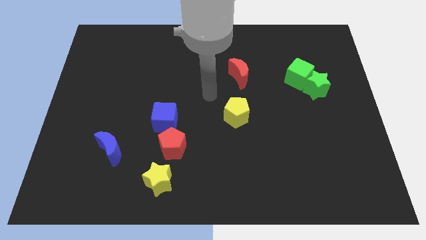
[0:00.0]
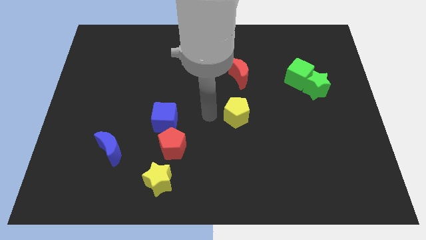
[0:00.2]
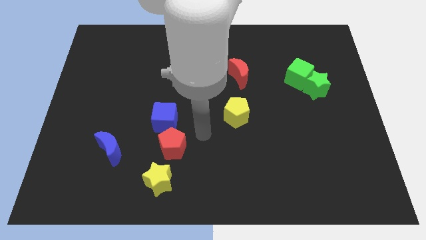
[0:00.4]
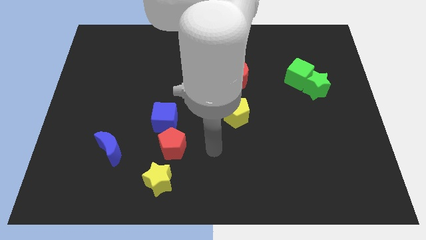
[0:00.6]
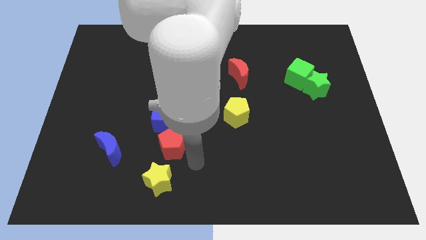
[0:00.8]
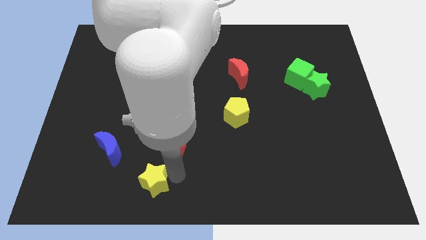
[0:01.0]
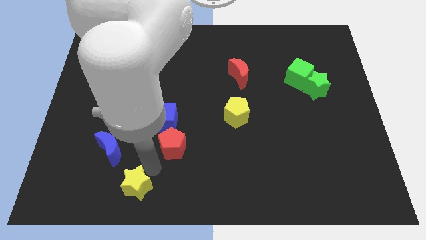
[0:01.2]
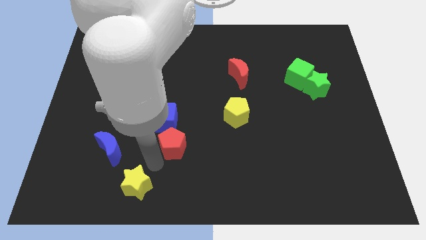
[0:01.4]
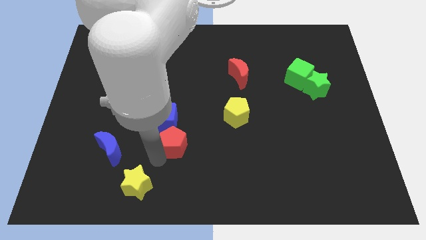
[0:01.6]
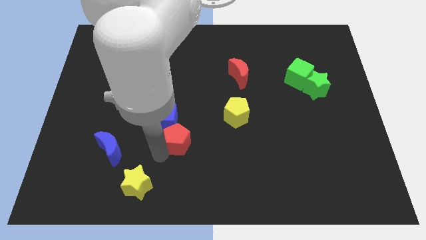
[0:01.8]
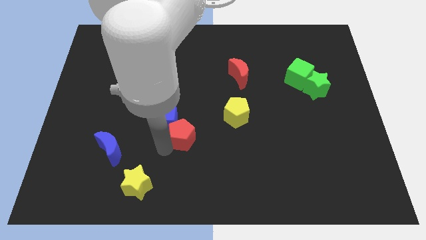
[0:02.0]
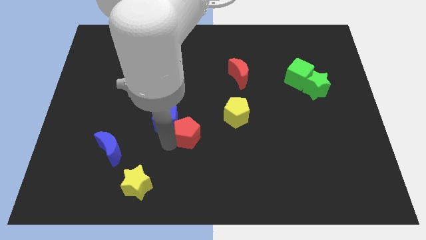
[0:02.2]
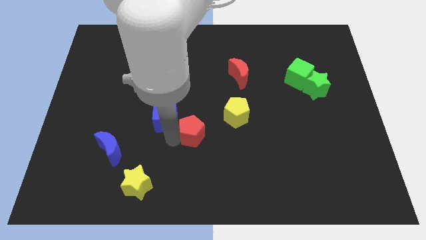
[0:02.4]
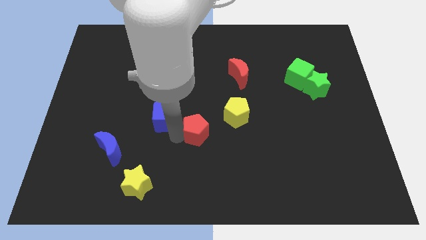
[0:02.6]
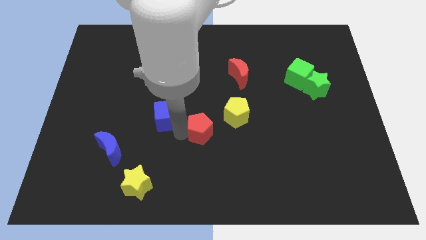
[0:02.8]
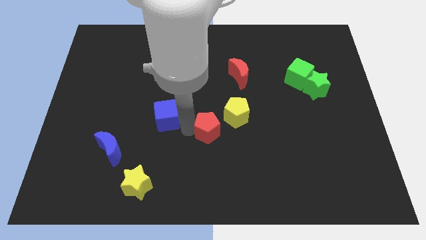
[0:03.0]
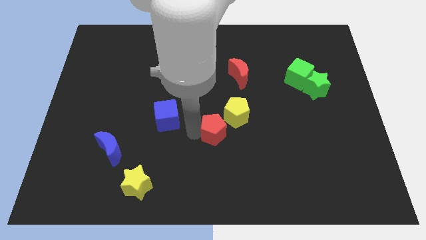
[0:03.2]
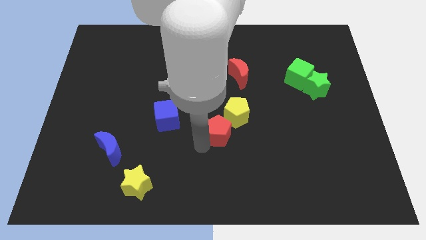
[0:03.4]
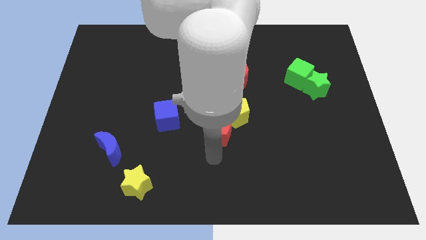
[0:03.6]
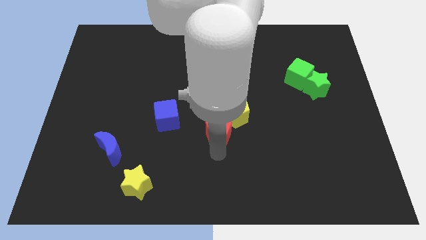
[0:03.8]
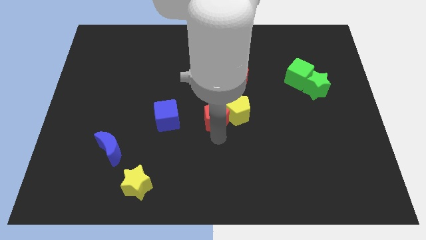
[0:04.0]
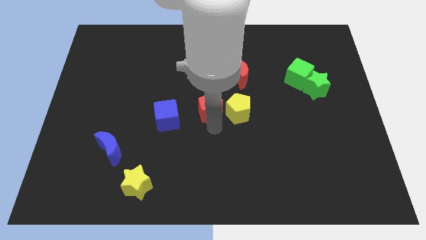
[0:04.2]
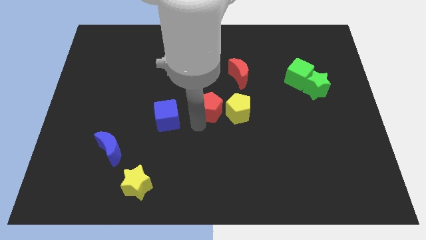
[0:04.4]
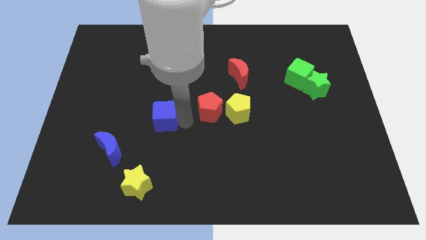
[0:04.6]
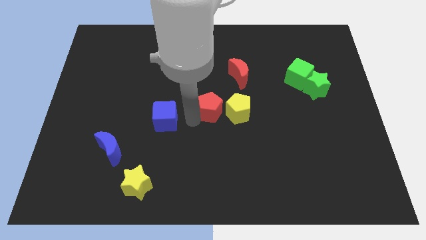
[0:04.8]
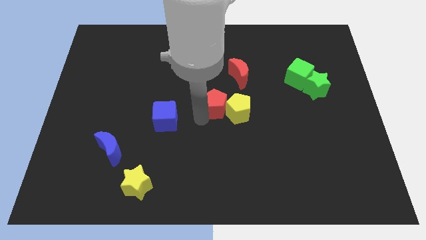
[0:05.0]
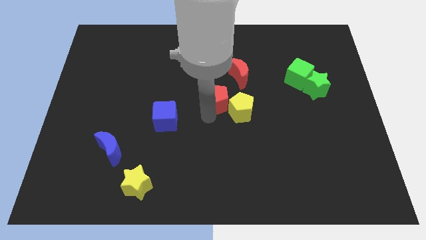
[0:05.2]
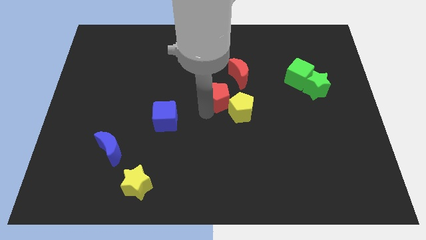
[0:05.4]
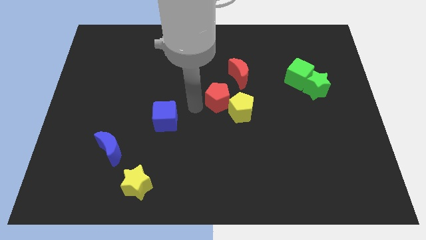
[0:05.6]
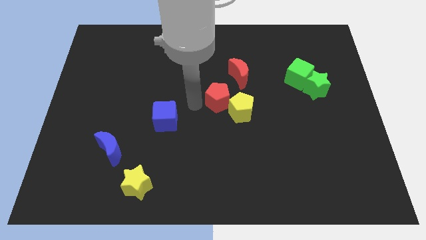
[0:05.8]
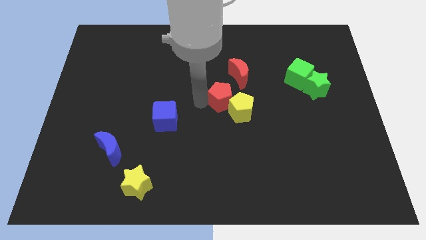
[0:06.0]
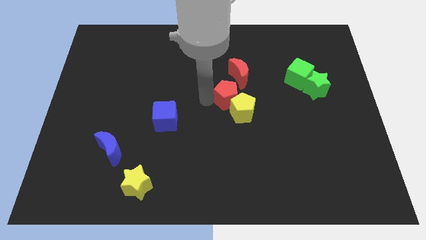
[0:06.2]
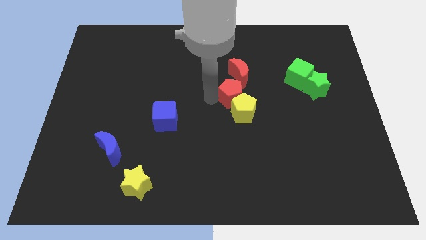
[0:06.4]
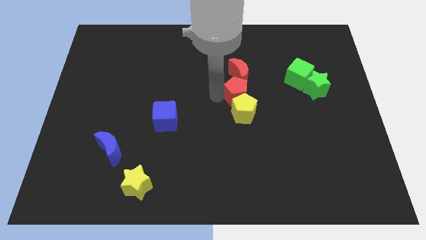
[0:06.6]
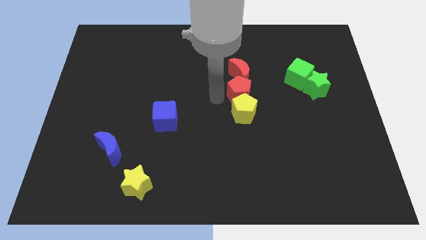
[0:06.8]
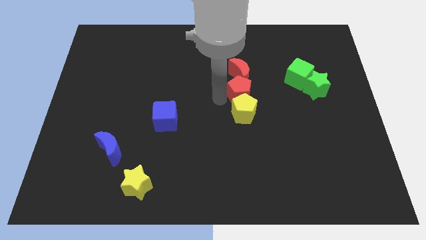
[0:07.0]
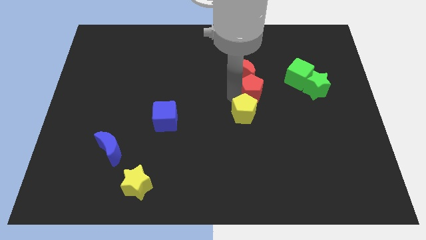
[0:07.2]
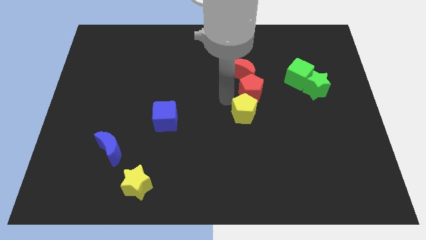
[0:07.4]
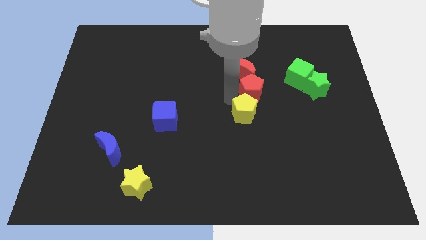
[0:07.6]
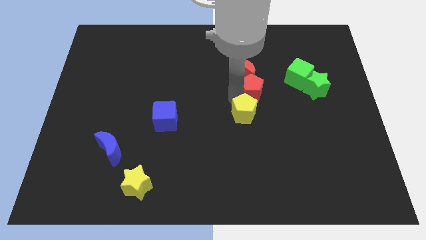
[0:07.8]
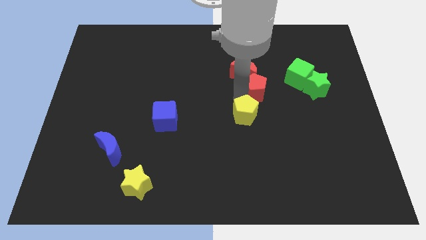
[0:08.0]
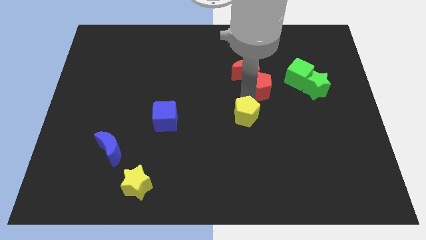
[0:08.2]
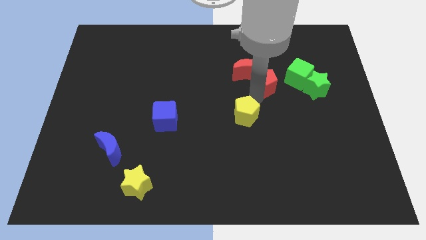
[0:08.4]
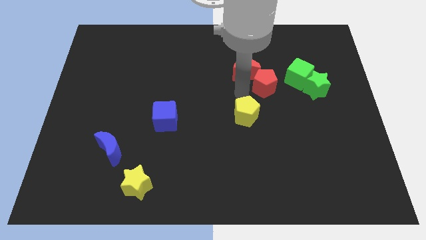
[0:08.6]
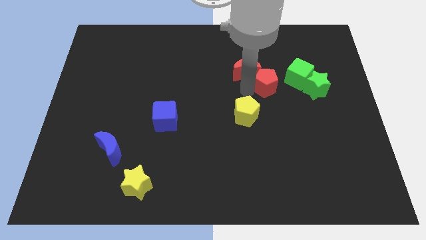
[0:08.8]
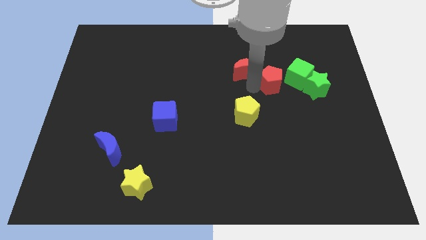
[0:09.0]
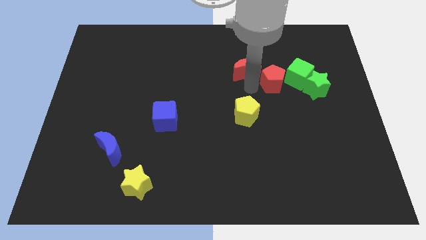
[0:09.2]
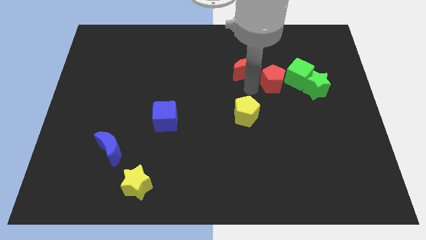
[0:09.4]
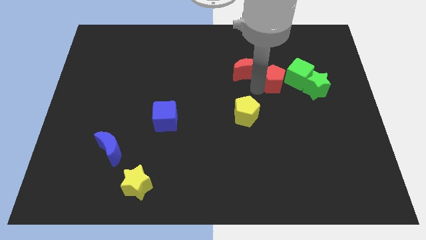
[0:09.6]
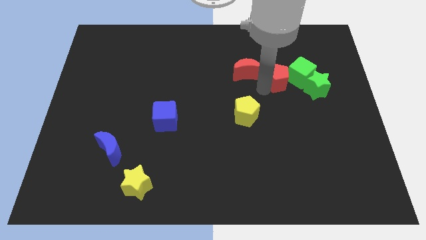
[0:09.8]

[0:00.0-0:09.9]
put the red pentagon next to the green cube

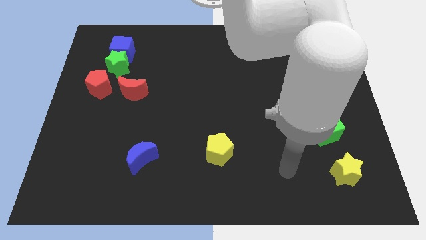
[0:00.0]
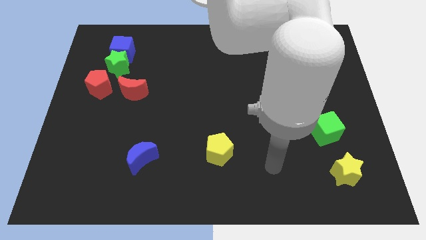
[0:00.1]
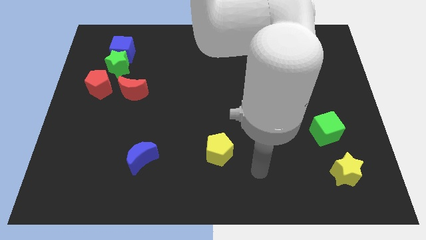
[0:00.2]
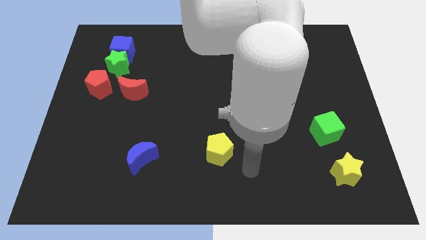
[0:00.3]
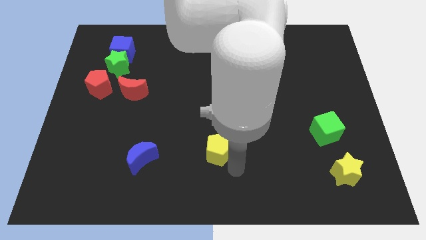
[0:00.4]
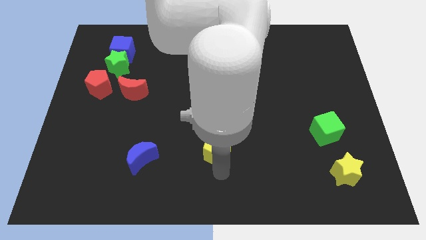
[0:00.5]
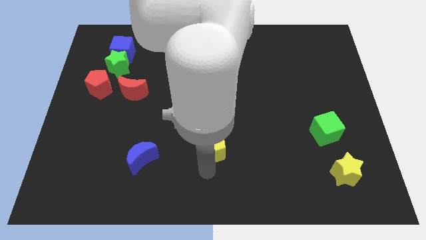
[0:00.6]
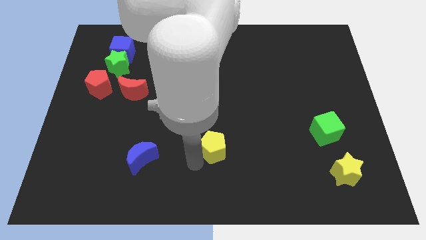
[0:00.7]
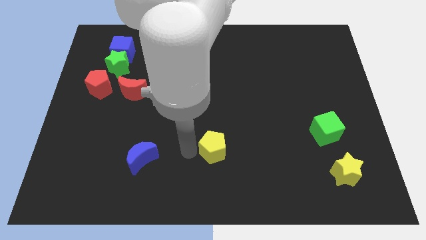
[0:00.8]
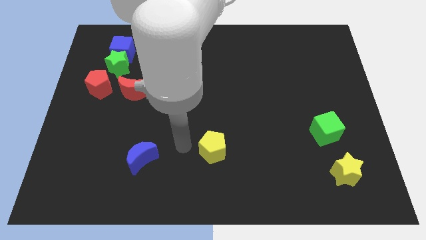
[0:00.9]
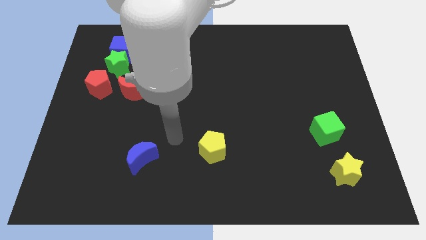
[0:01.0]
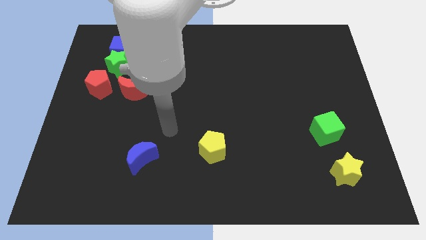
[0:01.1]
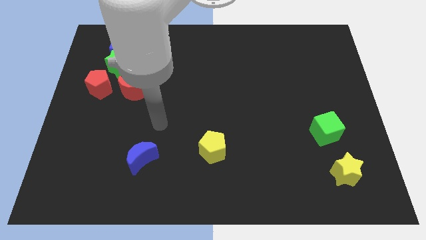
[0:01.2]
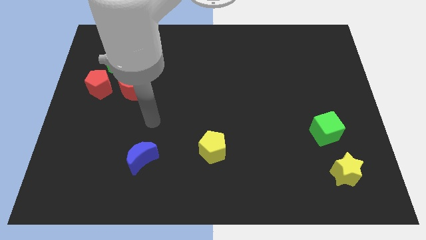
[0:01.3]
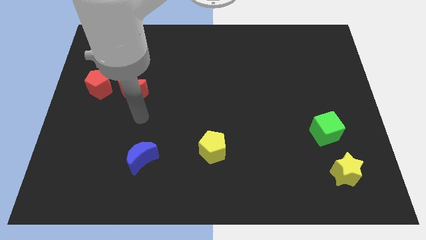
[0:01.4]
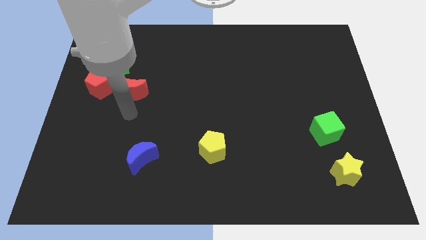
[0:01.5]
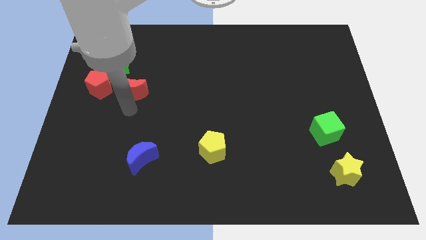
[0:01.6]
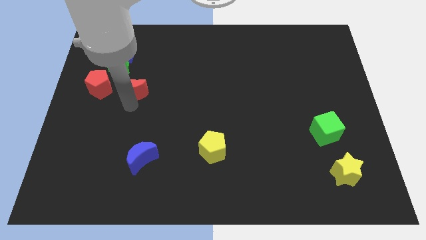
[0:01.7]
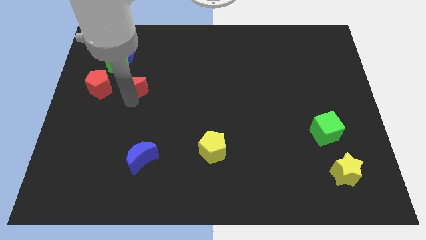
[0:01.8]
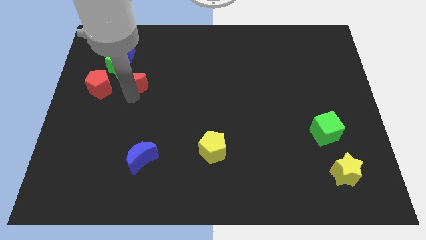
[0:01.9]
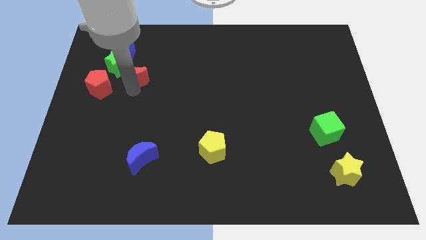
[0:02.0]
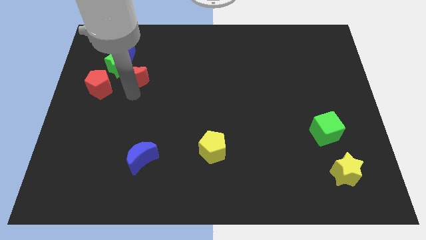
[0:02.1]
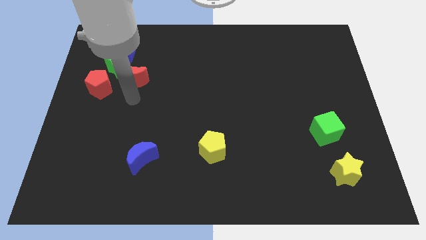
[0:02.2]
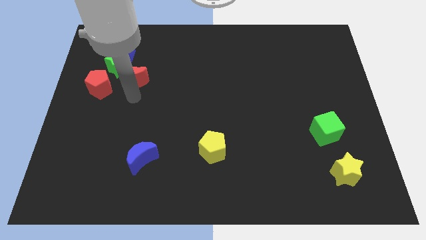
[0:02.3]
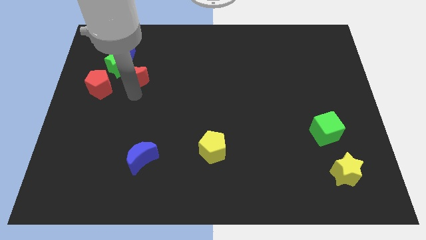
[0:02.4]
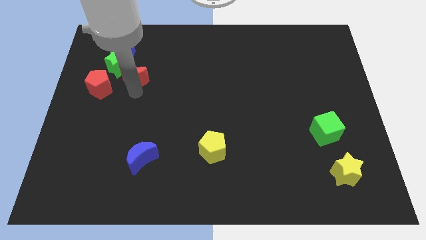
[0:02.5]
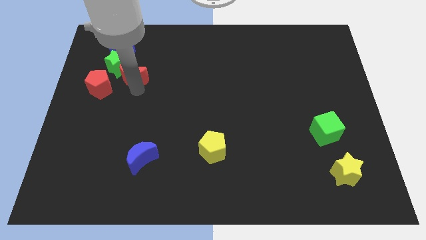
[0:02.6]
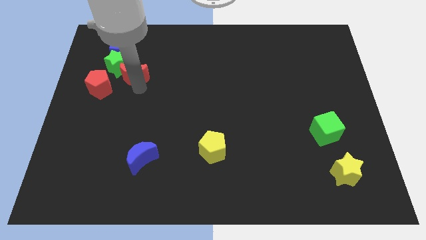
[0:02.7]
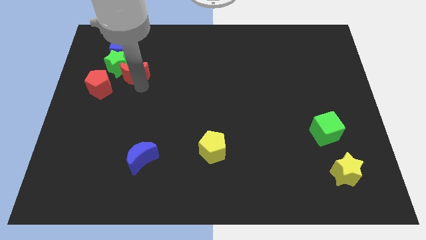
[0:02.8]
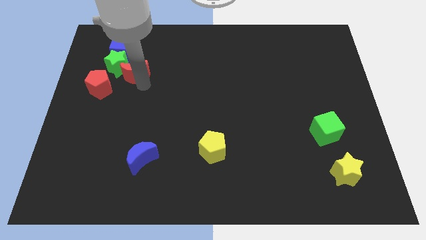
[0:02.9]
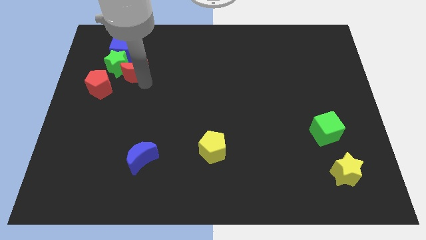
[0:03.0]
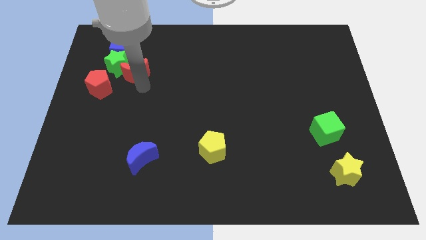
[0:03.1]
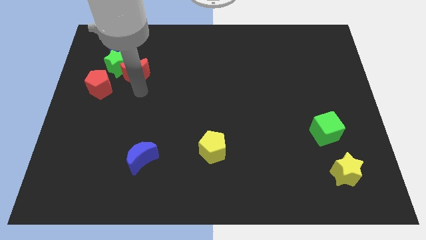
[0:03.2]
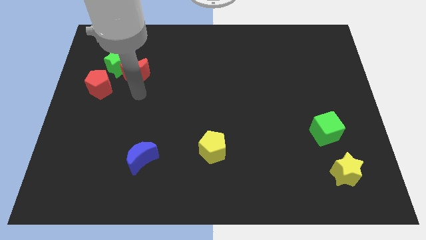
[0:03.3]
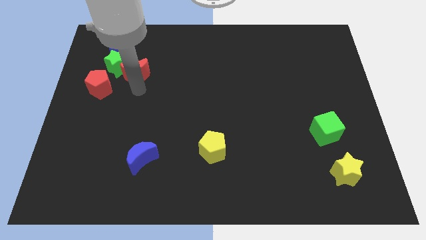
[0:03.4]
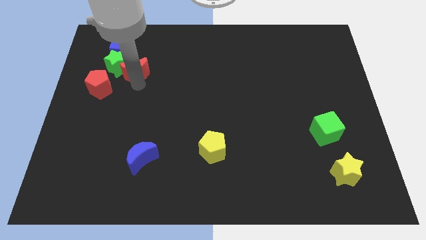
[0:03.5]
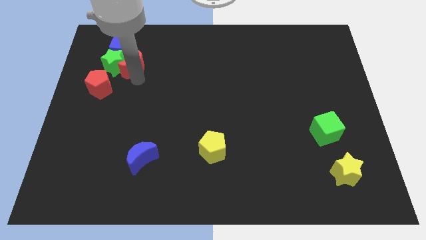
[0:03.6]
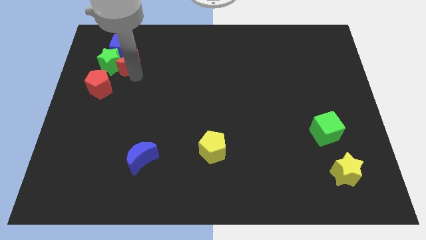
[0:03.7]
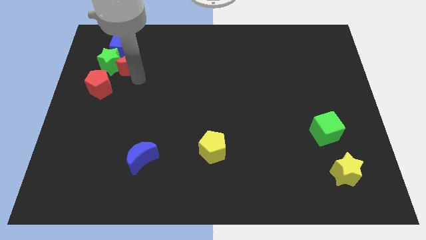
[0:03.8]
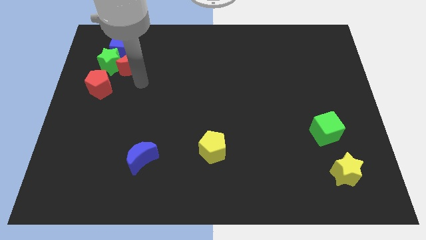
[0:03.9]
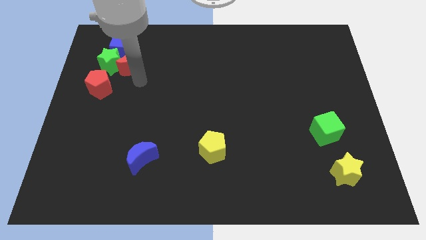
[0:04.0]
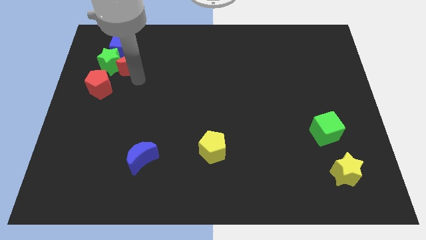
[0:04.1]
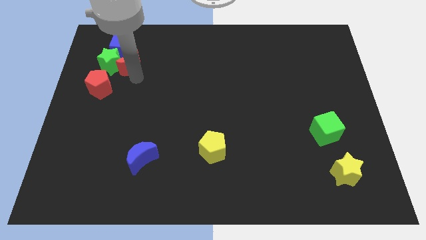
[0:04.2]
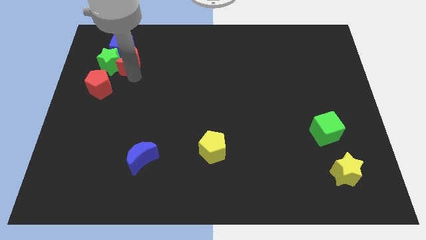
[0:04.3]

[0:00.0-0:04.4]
put the red moon to the blue cube
